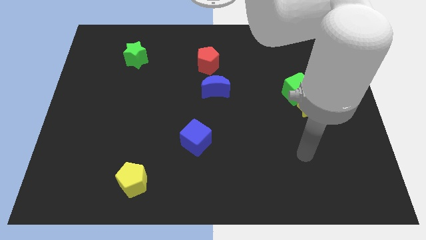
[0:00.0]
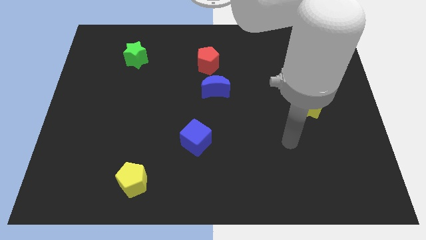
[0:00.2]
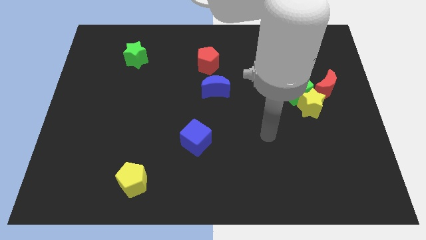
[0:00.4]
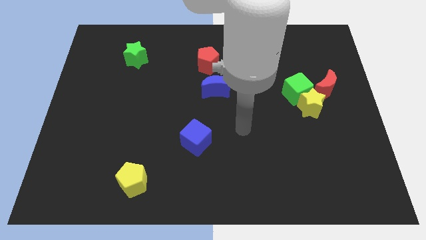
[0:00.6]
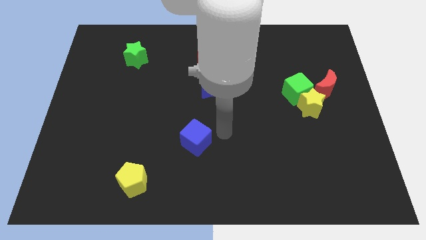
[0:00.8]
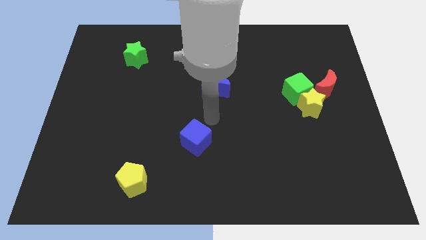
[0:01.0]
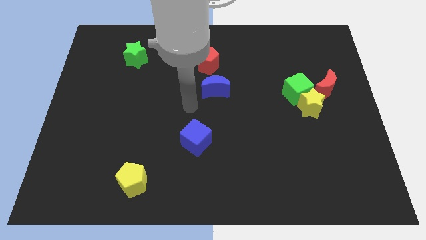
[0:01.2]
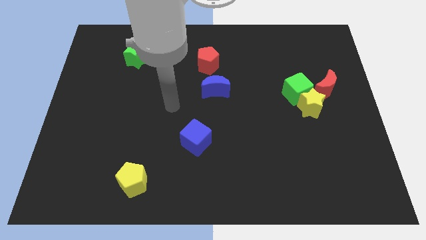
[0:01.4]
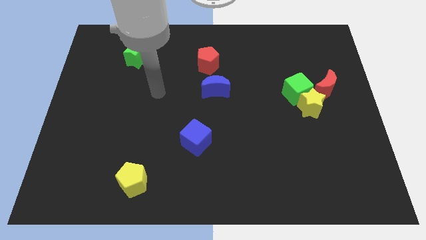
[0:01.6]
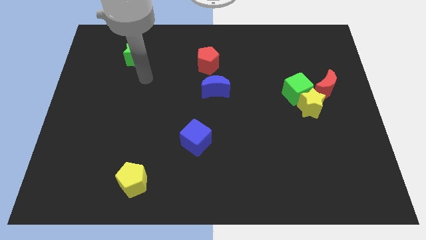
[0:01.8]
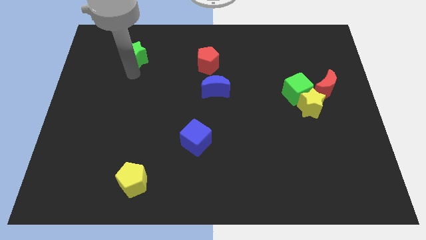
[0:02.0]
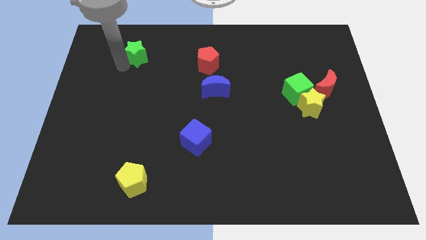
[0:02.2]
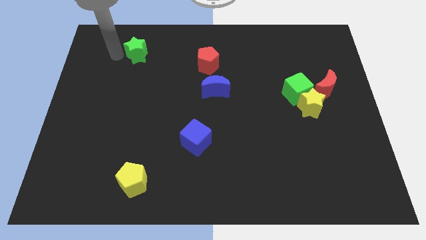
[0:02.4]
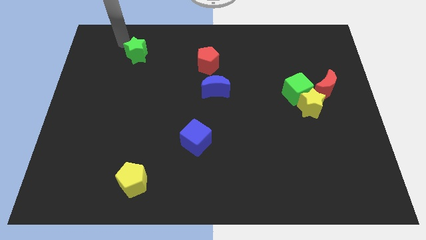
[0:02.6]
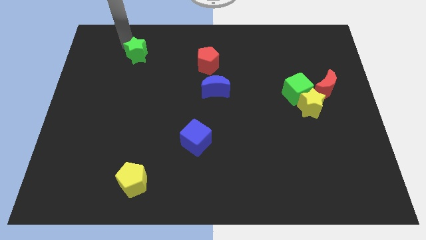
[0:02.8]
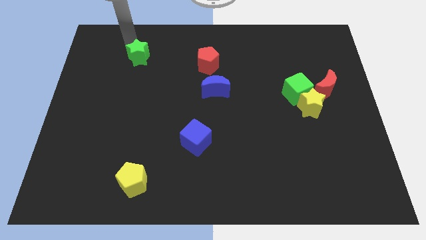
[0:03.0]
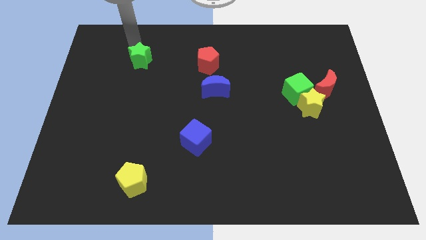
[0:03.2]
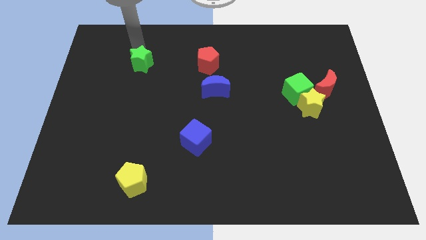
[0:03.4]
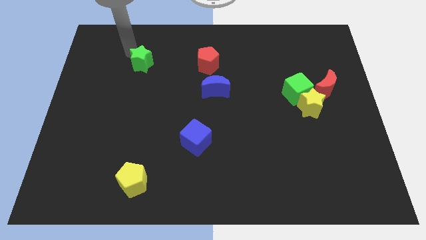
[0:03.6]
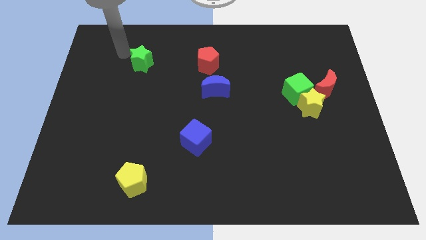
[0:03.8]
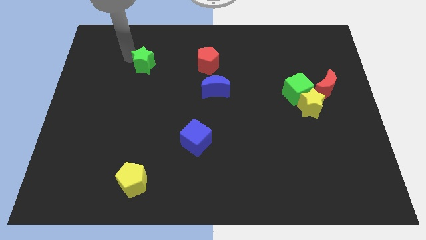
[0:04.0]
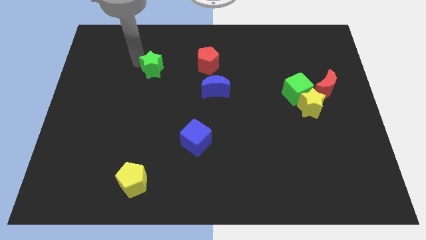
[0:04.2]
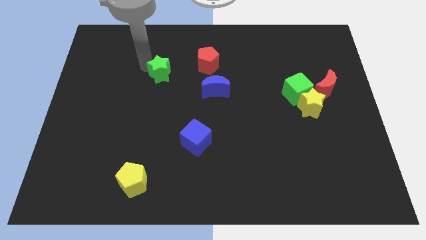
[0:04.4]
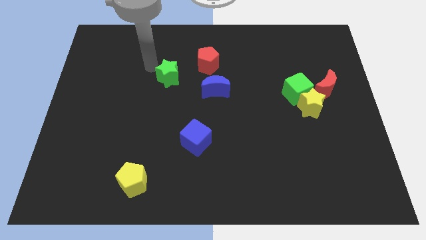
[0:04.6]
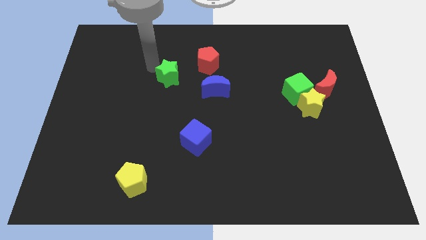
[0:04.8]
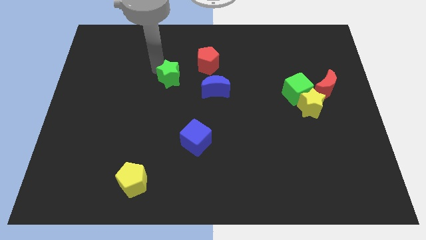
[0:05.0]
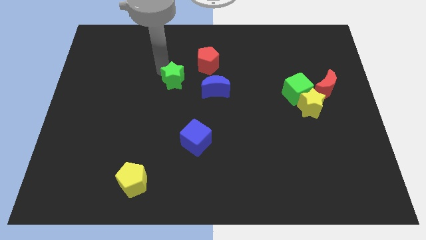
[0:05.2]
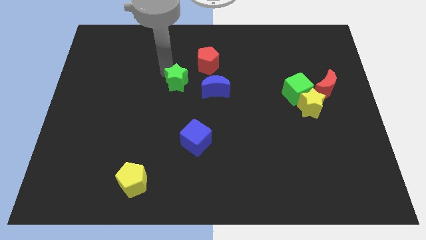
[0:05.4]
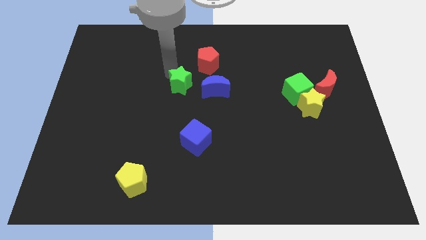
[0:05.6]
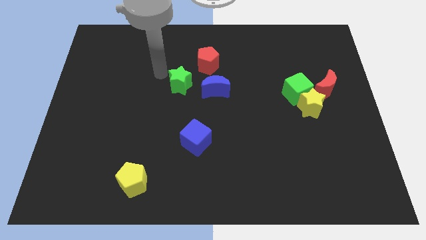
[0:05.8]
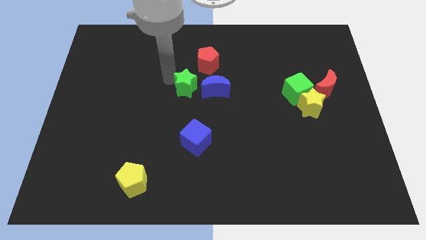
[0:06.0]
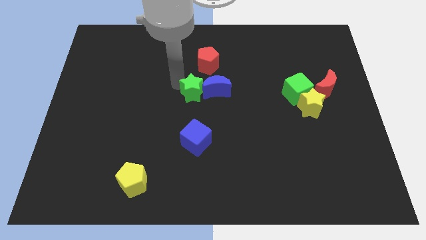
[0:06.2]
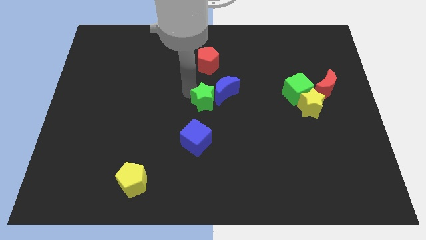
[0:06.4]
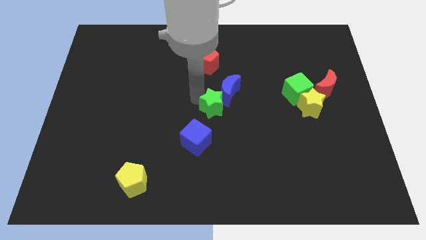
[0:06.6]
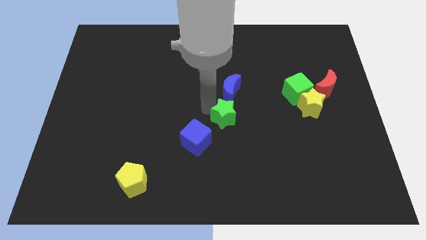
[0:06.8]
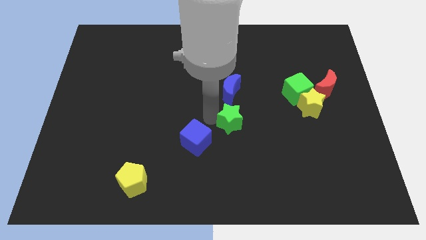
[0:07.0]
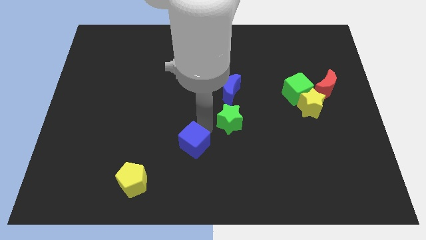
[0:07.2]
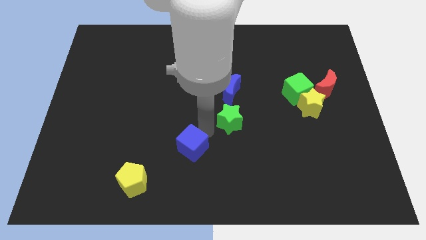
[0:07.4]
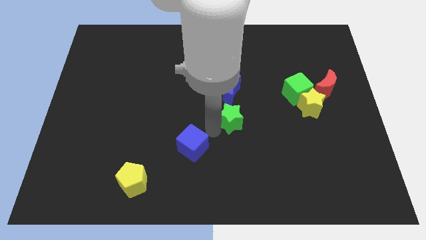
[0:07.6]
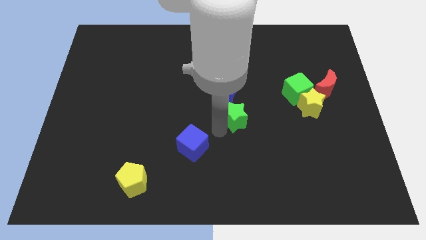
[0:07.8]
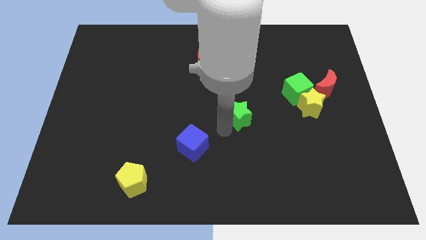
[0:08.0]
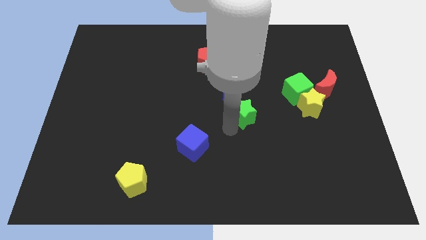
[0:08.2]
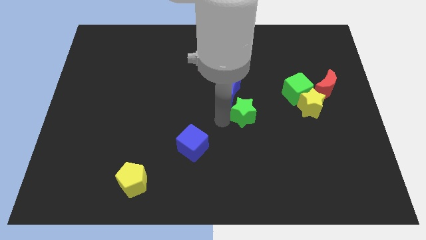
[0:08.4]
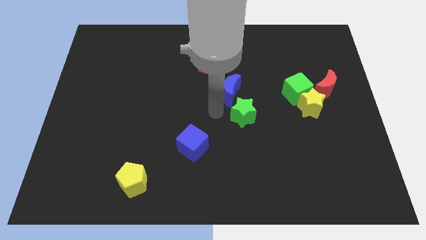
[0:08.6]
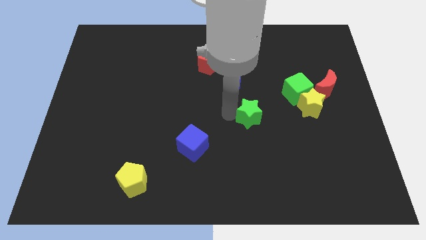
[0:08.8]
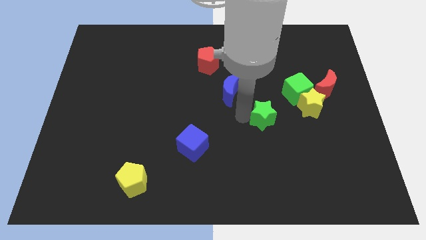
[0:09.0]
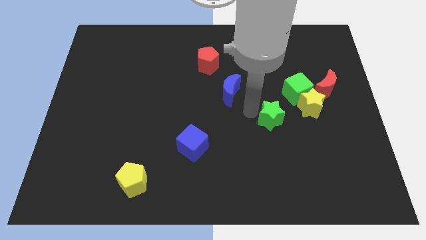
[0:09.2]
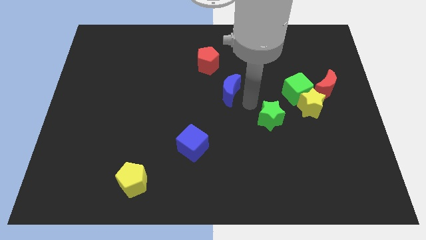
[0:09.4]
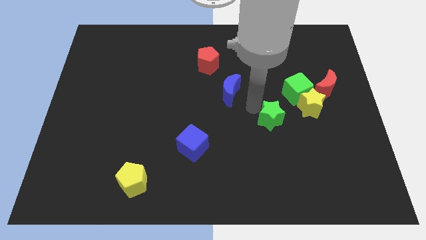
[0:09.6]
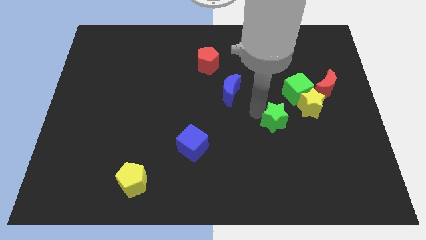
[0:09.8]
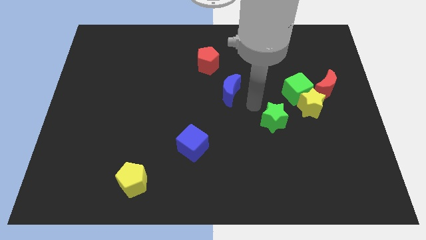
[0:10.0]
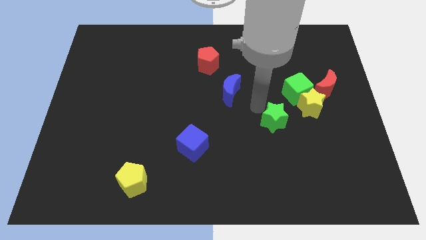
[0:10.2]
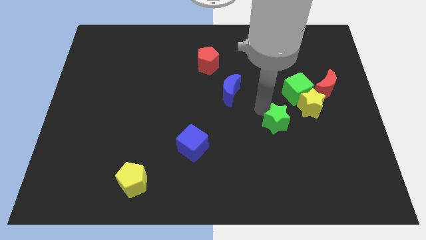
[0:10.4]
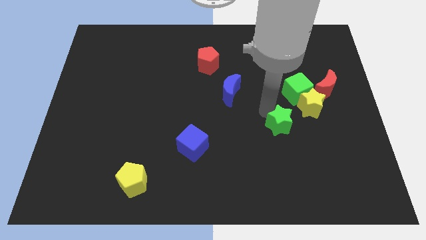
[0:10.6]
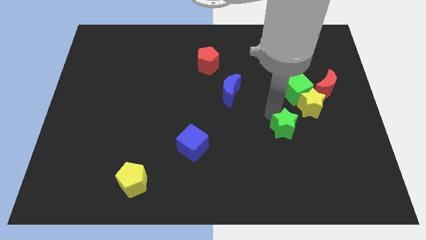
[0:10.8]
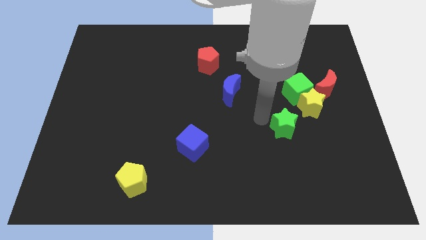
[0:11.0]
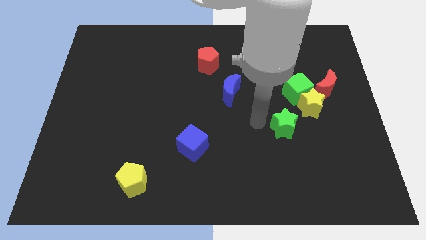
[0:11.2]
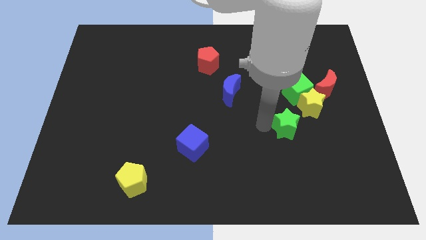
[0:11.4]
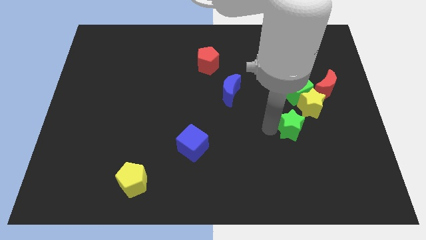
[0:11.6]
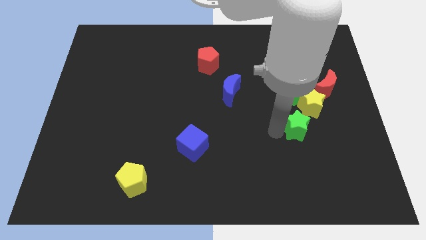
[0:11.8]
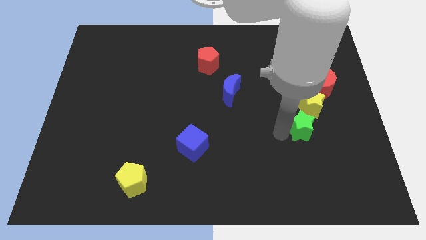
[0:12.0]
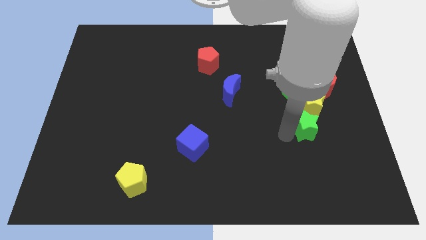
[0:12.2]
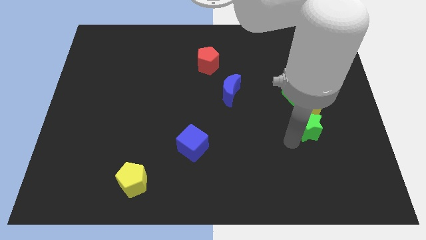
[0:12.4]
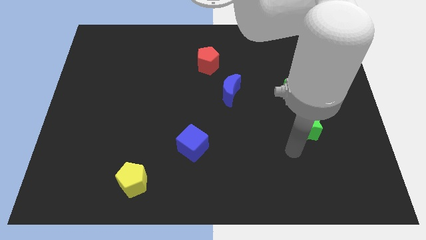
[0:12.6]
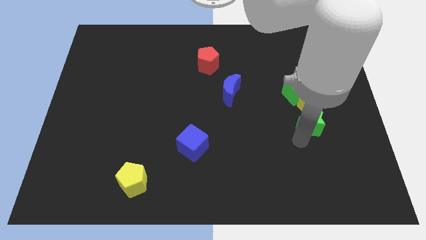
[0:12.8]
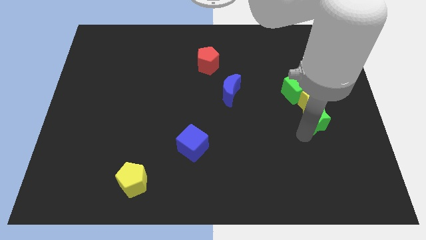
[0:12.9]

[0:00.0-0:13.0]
push the green star to the bottom right of the green cube

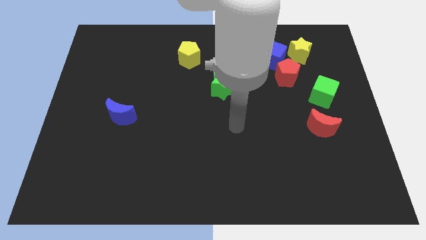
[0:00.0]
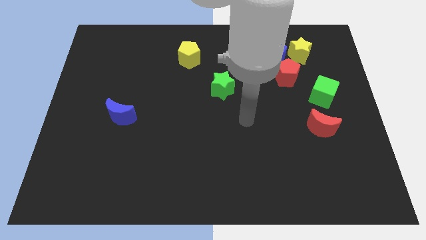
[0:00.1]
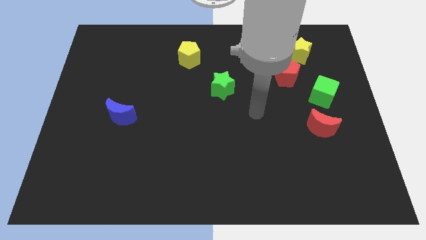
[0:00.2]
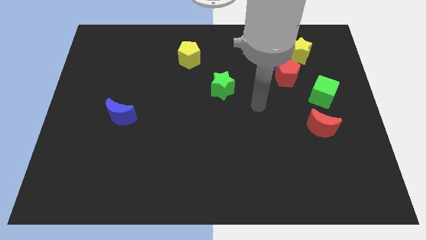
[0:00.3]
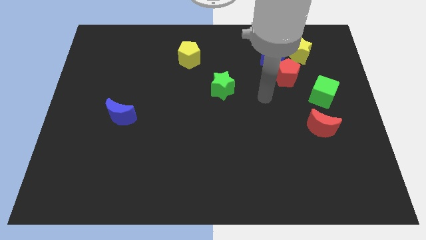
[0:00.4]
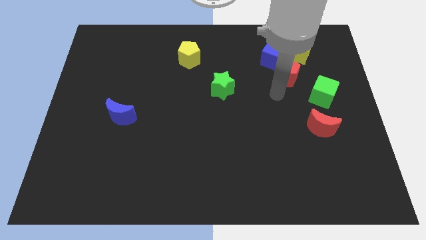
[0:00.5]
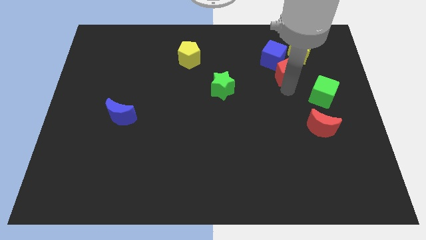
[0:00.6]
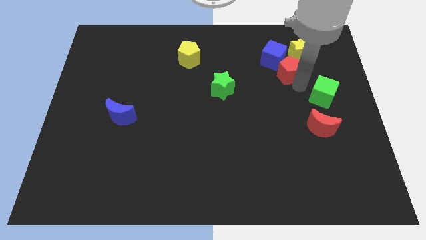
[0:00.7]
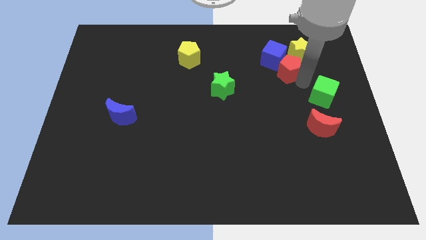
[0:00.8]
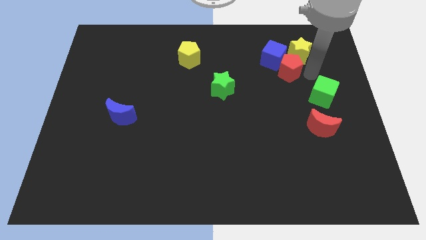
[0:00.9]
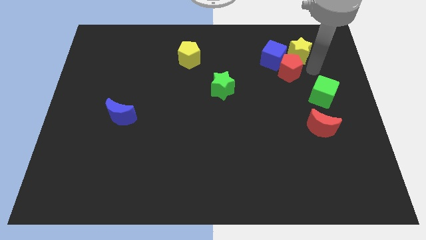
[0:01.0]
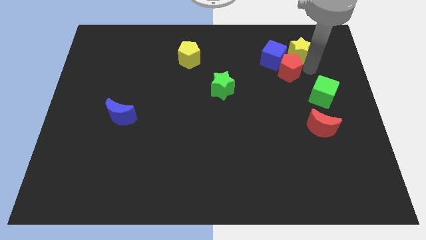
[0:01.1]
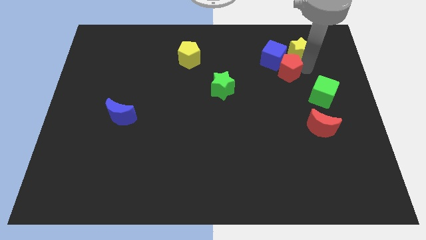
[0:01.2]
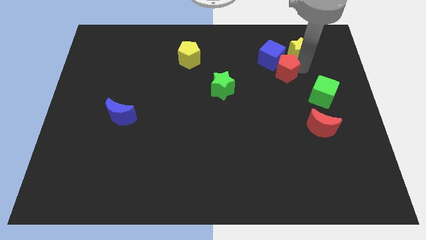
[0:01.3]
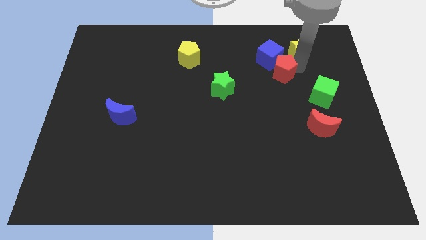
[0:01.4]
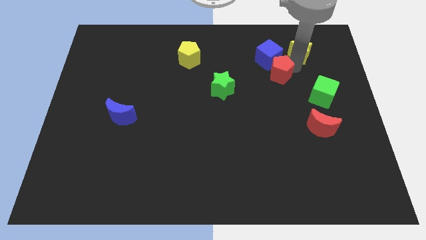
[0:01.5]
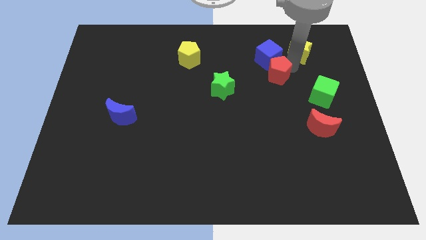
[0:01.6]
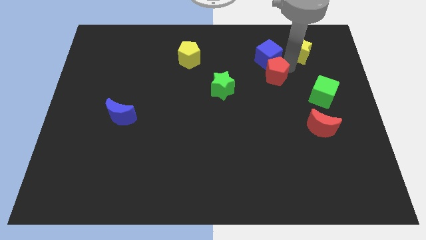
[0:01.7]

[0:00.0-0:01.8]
move the red pentagon to the bottom left of the blue cube
